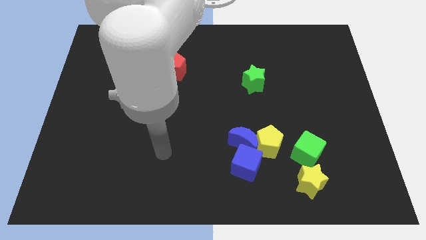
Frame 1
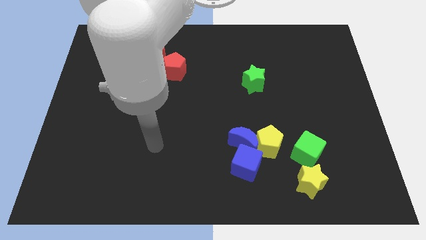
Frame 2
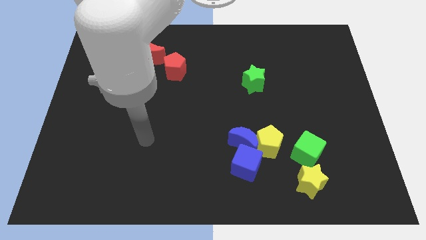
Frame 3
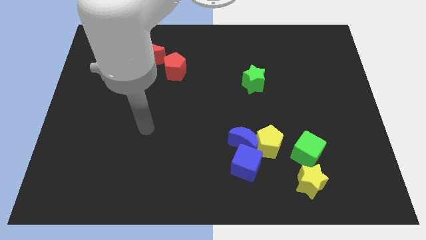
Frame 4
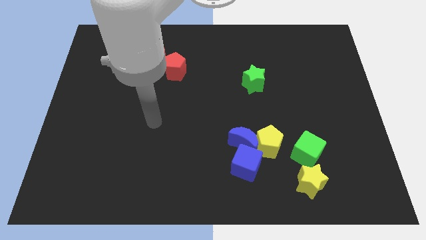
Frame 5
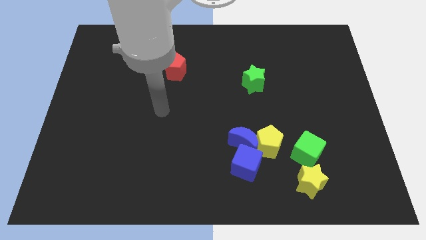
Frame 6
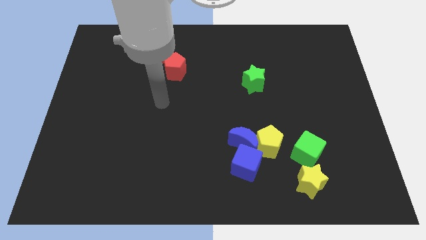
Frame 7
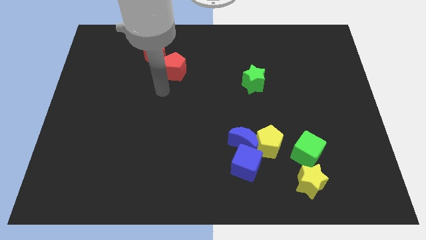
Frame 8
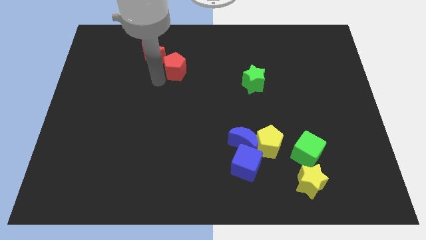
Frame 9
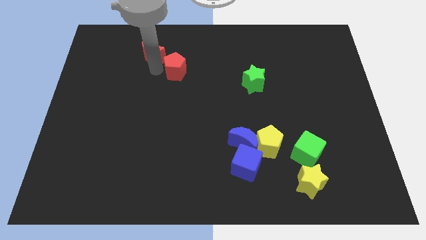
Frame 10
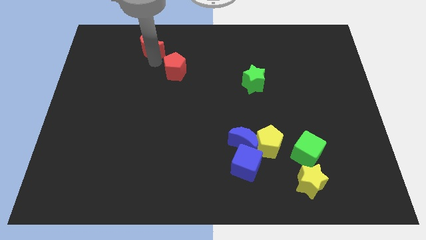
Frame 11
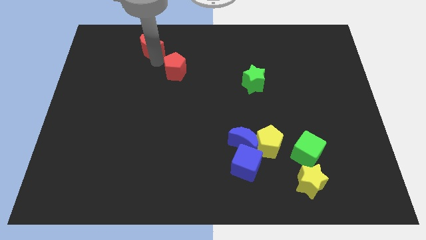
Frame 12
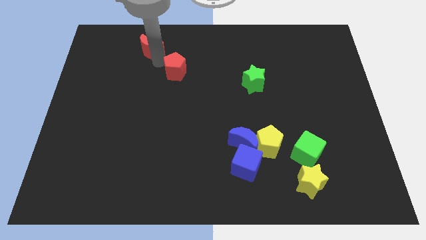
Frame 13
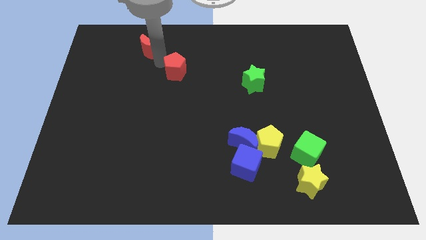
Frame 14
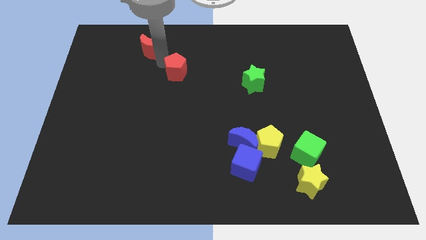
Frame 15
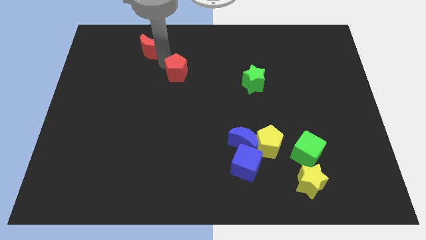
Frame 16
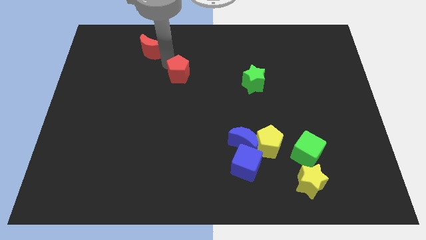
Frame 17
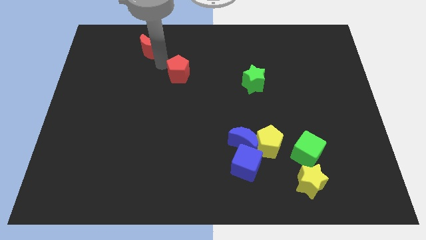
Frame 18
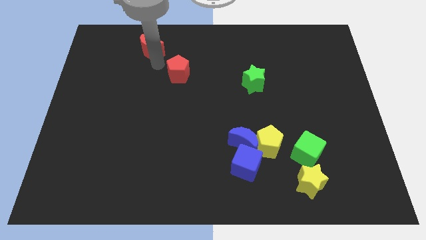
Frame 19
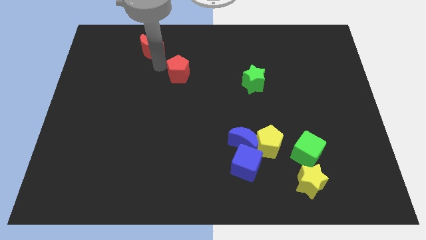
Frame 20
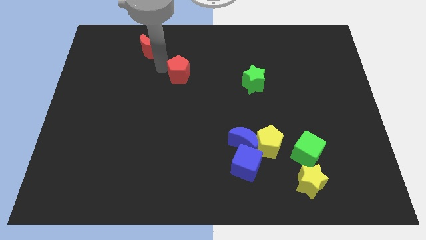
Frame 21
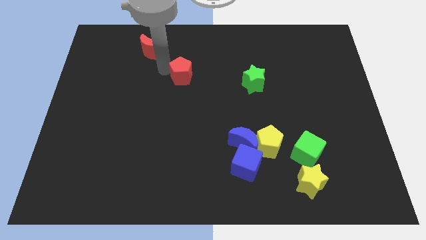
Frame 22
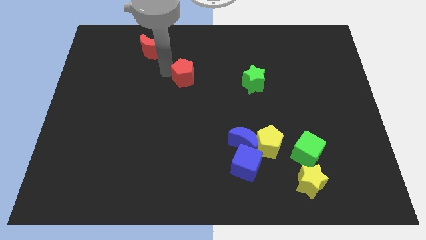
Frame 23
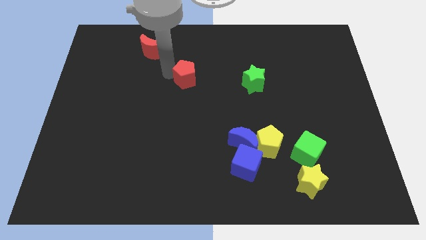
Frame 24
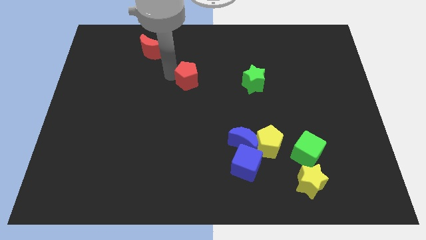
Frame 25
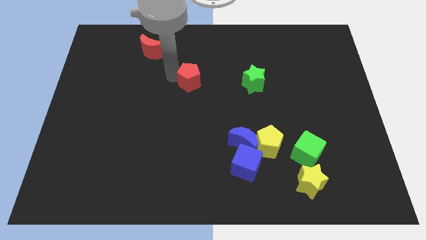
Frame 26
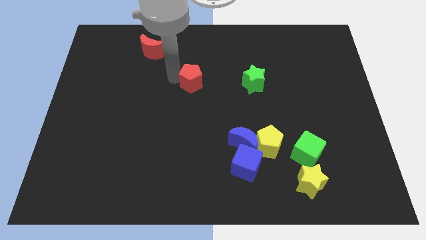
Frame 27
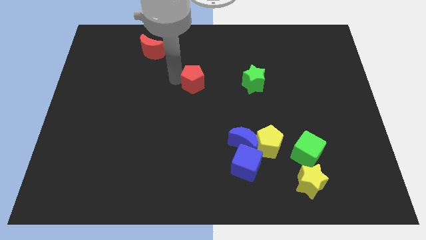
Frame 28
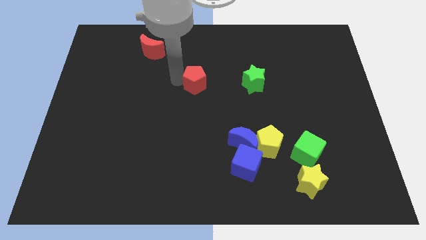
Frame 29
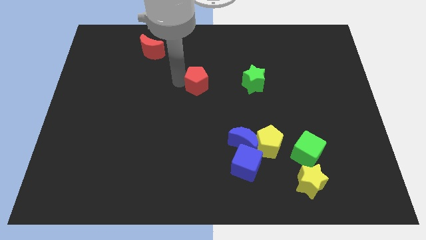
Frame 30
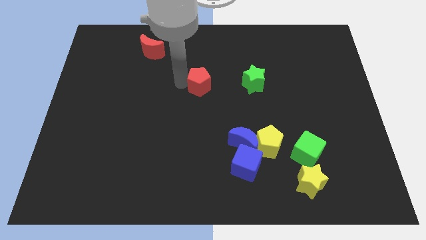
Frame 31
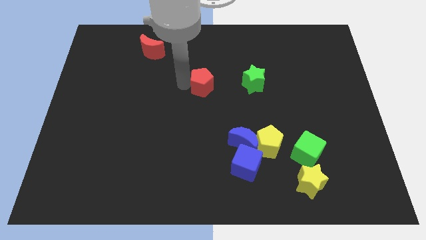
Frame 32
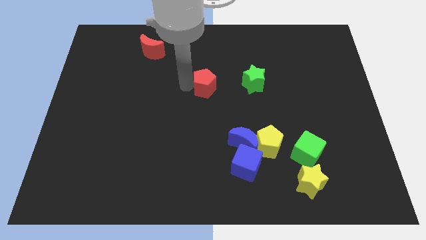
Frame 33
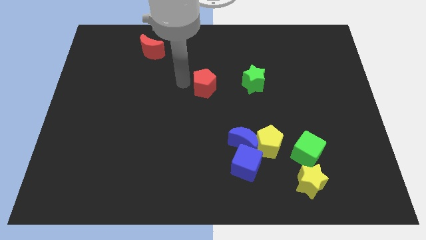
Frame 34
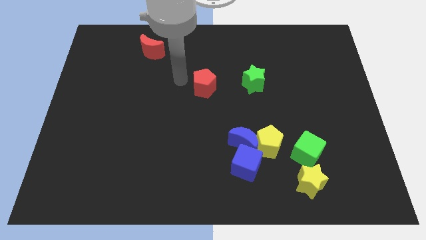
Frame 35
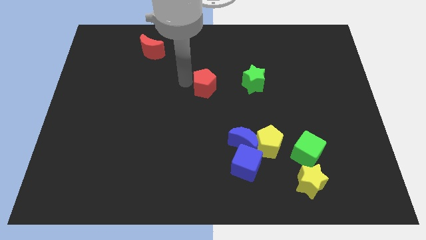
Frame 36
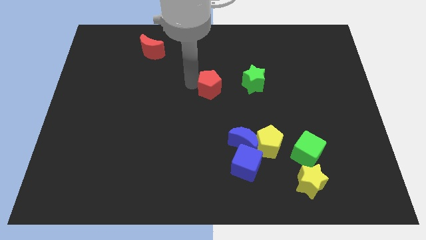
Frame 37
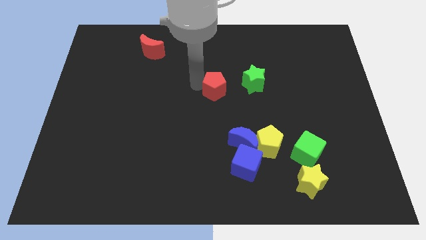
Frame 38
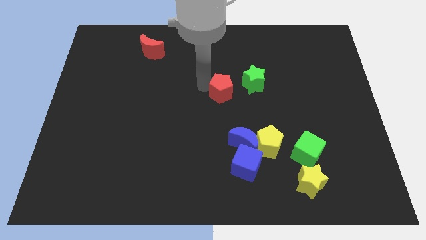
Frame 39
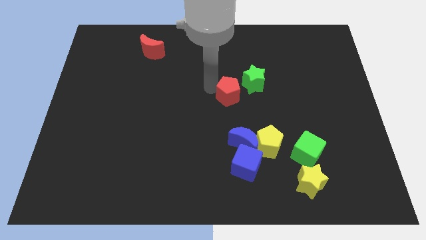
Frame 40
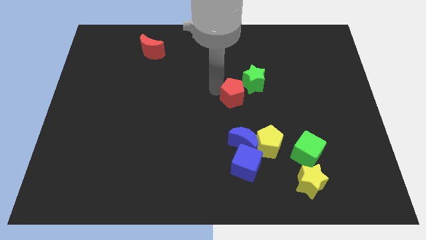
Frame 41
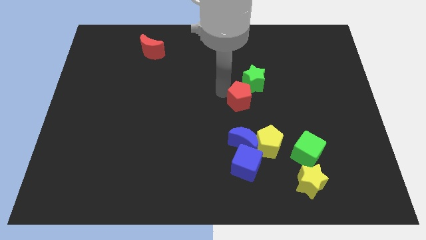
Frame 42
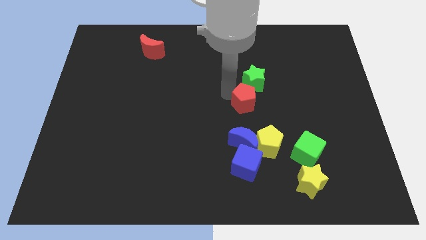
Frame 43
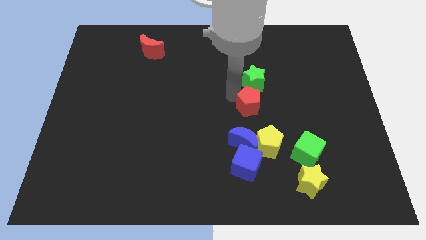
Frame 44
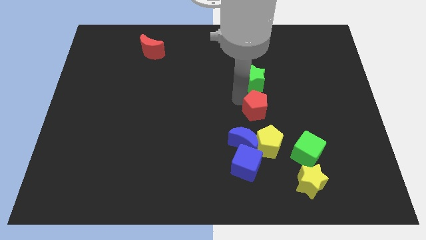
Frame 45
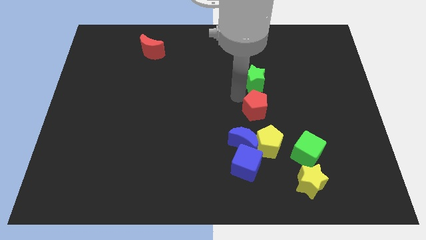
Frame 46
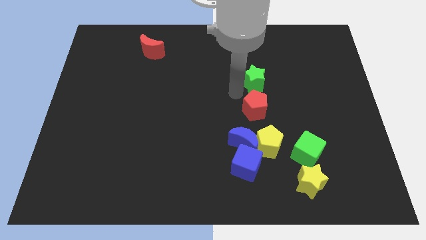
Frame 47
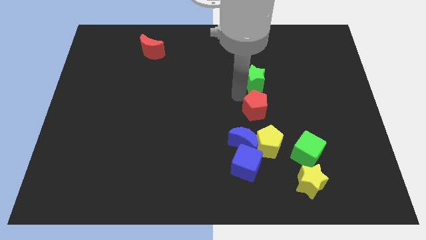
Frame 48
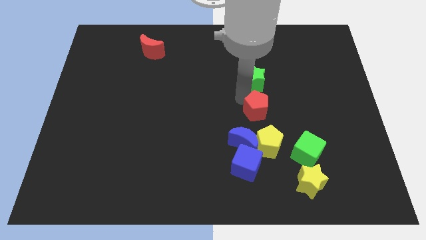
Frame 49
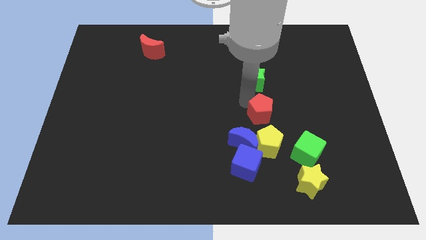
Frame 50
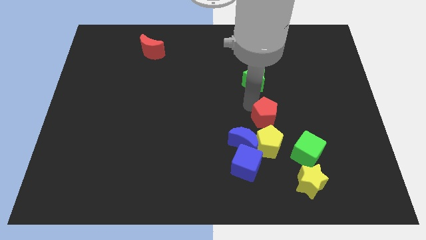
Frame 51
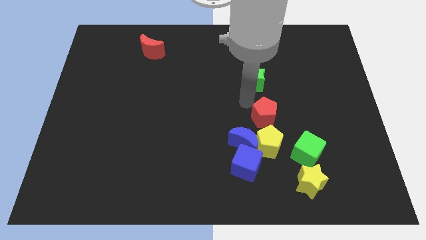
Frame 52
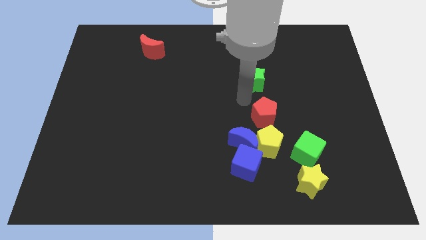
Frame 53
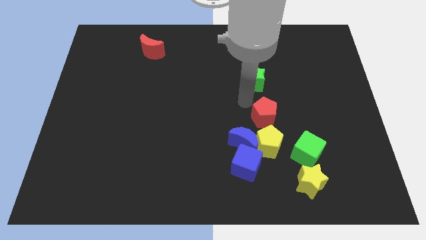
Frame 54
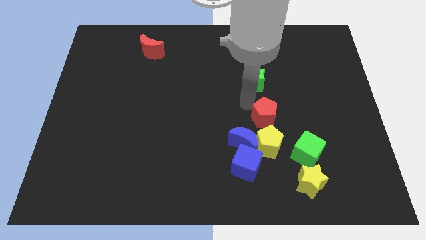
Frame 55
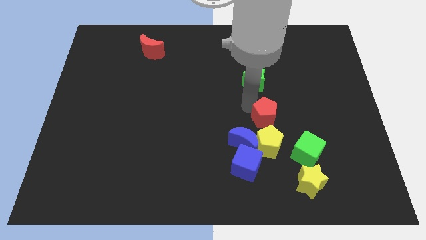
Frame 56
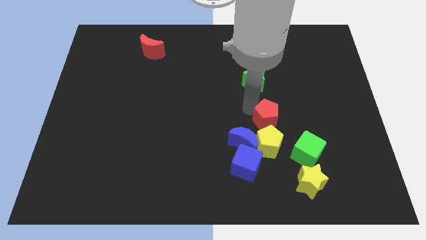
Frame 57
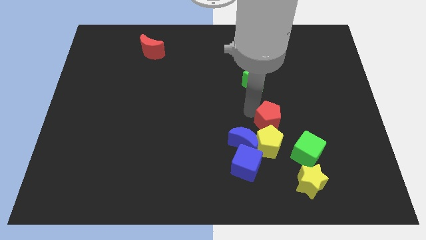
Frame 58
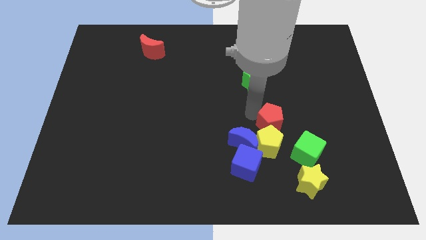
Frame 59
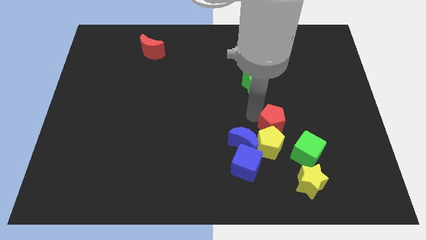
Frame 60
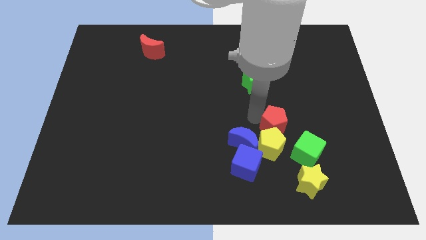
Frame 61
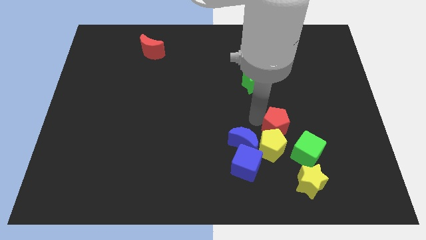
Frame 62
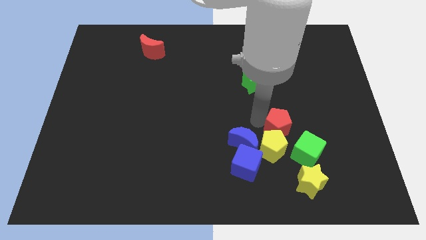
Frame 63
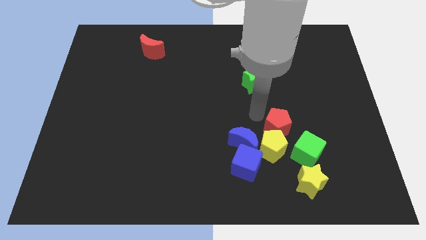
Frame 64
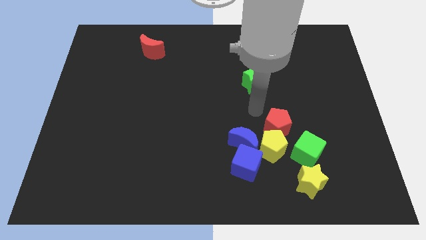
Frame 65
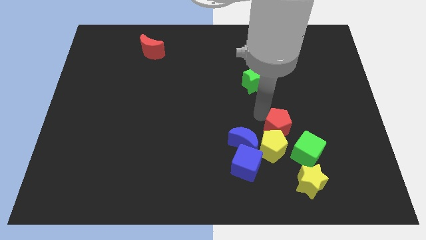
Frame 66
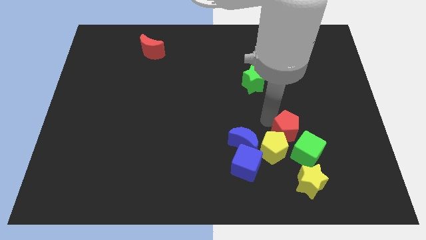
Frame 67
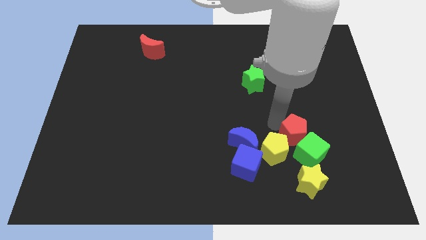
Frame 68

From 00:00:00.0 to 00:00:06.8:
push the red pentagon close to the green cube
